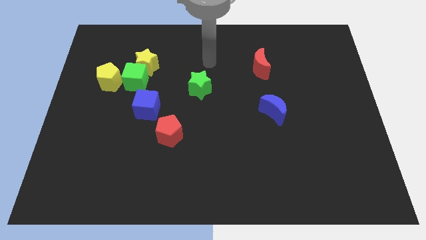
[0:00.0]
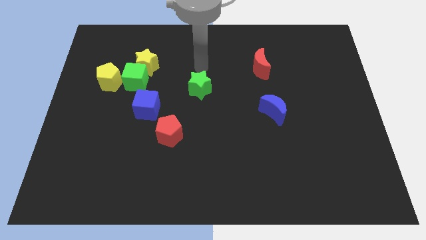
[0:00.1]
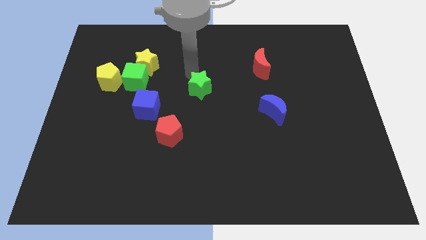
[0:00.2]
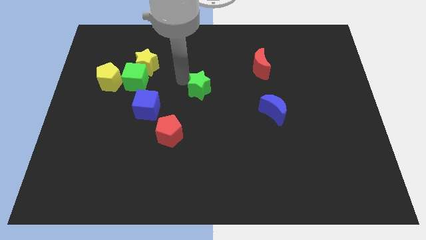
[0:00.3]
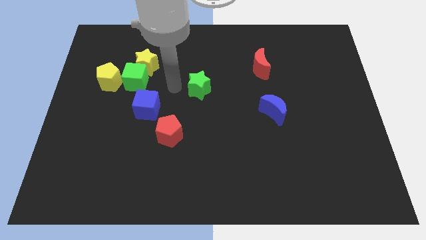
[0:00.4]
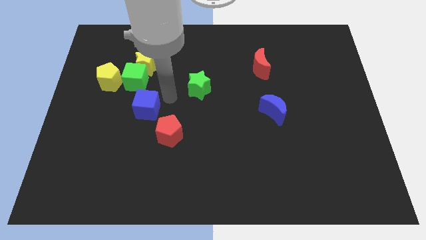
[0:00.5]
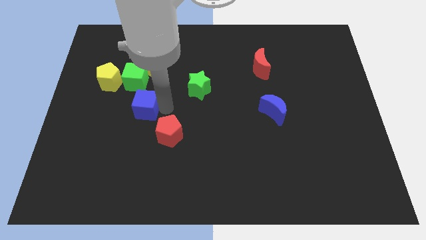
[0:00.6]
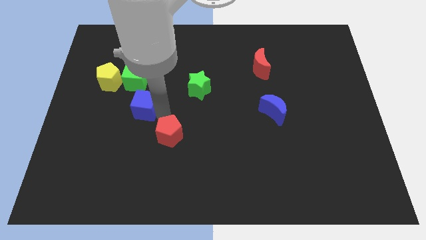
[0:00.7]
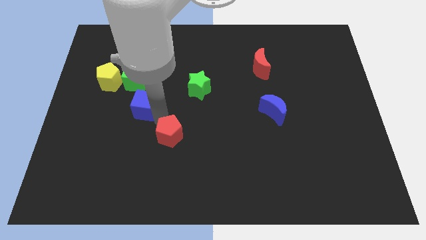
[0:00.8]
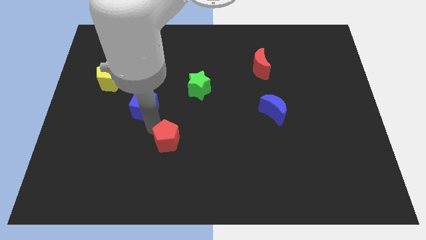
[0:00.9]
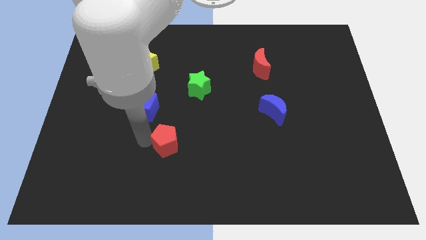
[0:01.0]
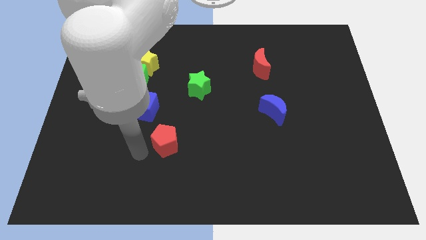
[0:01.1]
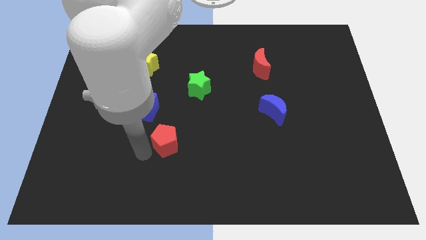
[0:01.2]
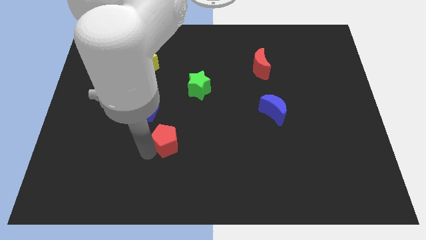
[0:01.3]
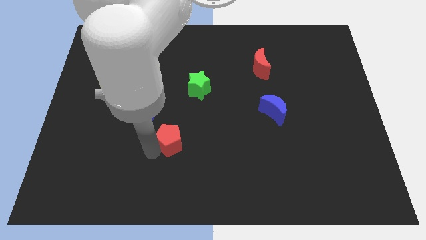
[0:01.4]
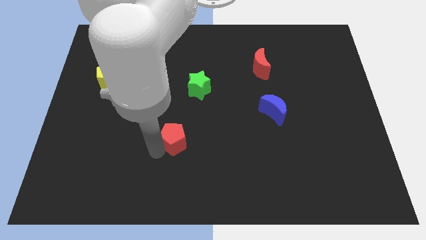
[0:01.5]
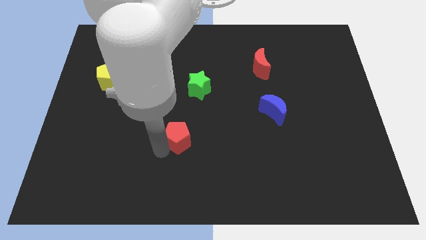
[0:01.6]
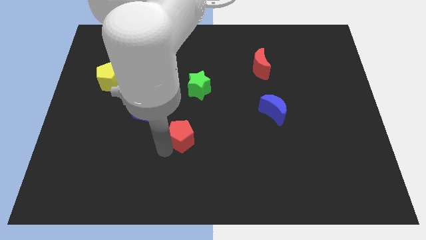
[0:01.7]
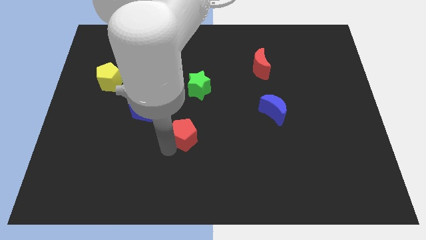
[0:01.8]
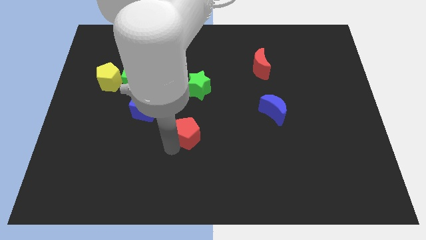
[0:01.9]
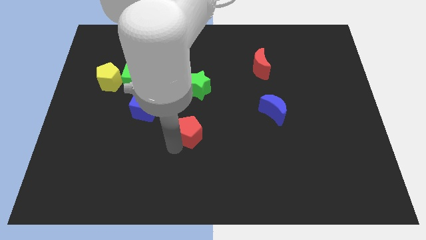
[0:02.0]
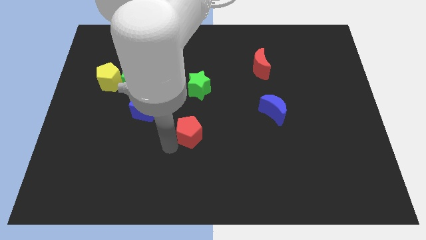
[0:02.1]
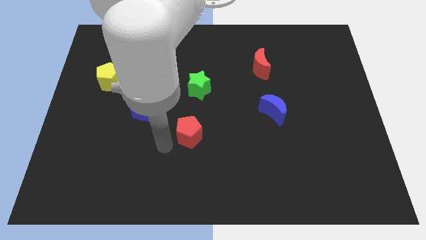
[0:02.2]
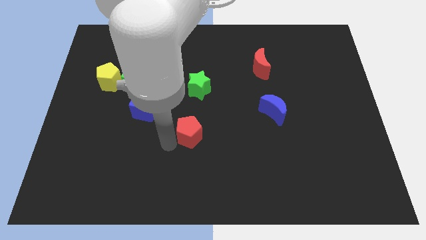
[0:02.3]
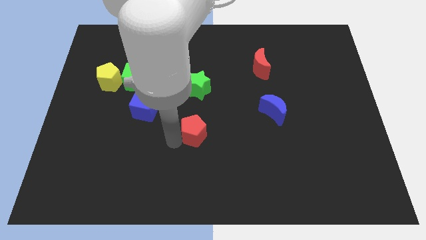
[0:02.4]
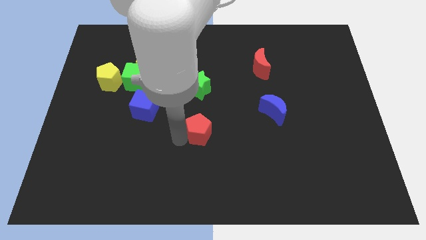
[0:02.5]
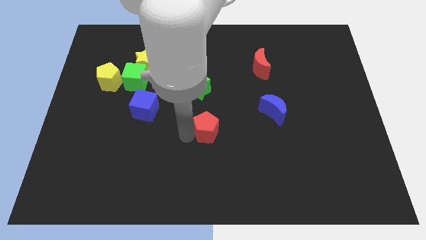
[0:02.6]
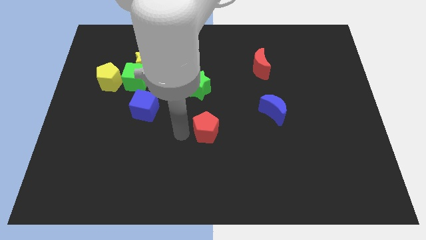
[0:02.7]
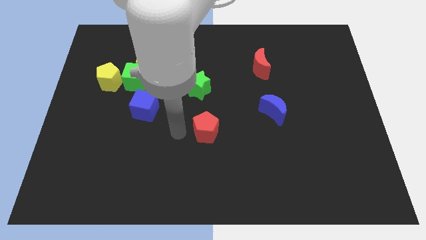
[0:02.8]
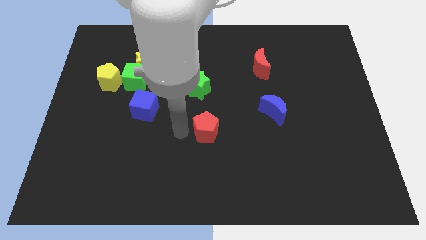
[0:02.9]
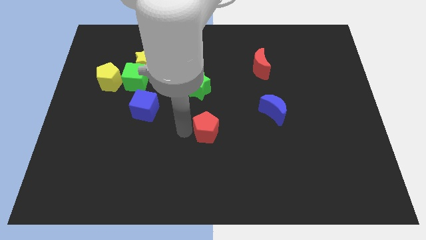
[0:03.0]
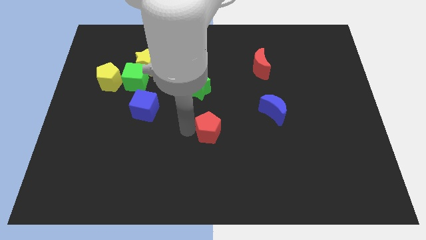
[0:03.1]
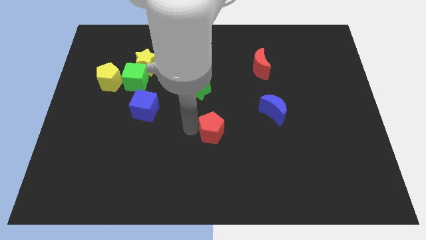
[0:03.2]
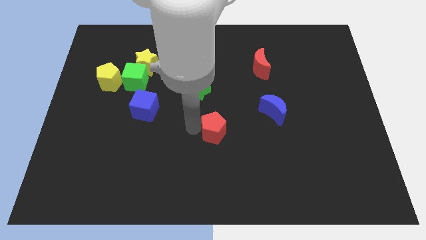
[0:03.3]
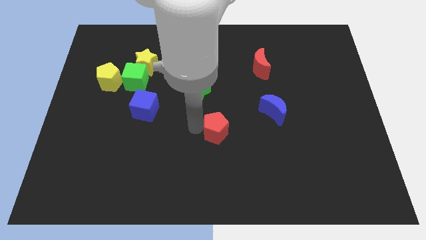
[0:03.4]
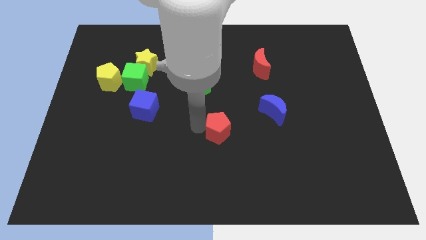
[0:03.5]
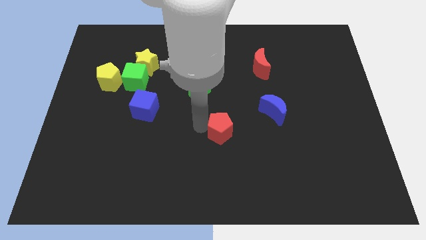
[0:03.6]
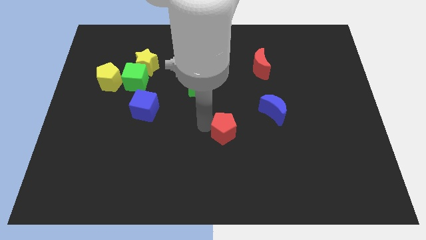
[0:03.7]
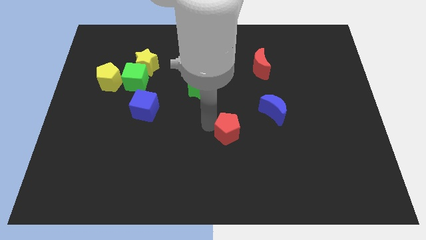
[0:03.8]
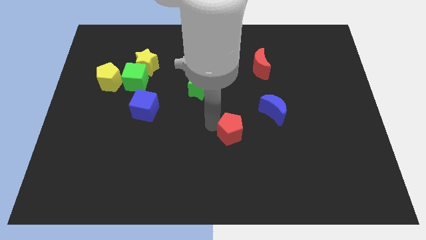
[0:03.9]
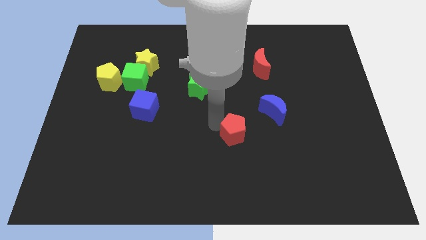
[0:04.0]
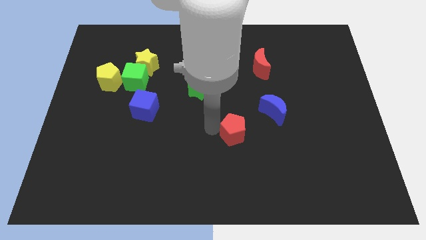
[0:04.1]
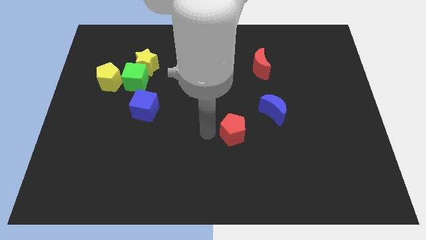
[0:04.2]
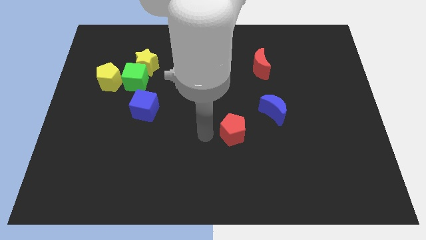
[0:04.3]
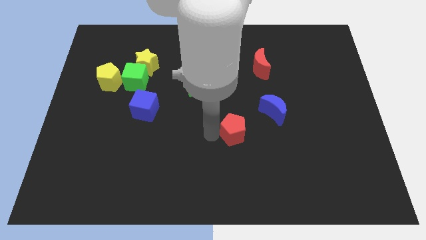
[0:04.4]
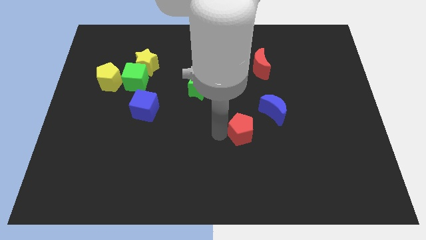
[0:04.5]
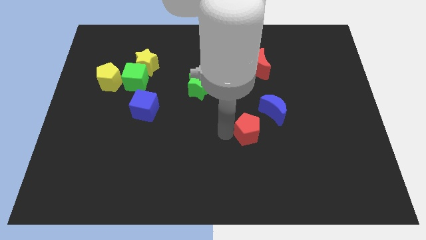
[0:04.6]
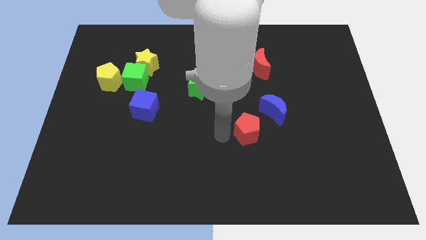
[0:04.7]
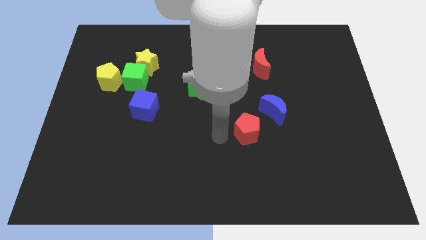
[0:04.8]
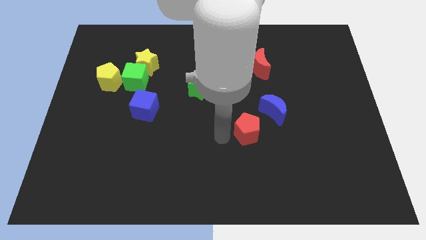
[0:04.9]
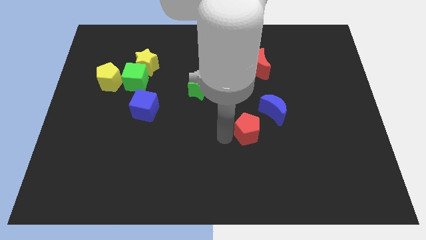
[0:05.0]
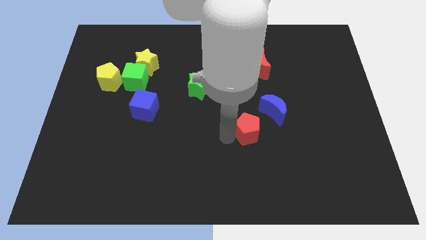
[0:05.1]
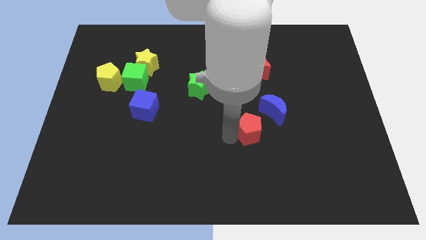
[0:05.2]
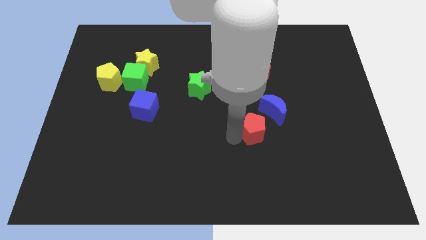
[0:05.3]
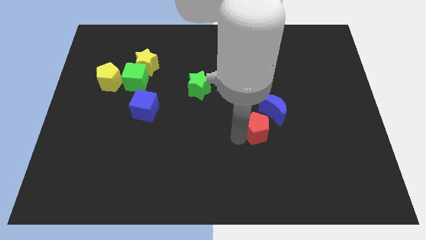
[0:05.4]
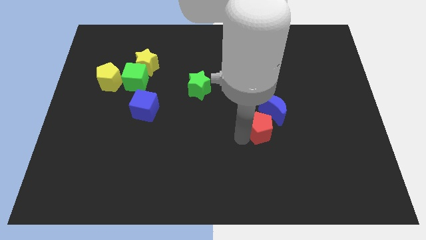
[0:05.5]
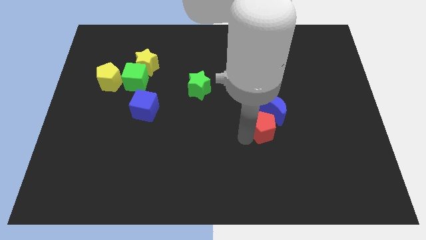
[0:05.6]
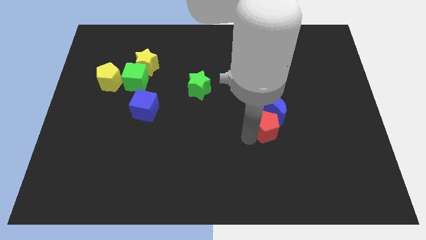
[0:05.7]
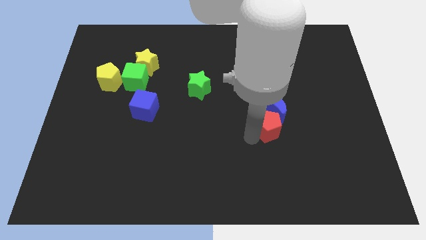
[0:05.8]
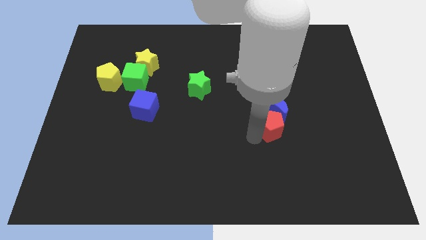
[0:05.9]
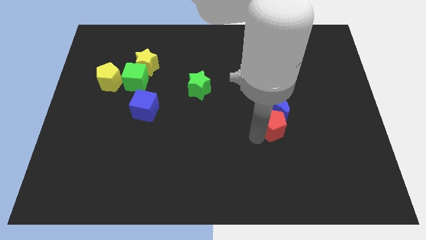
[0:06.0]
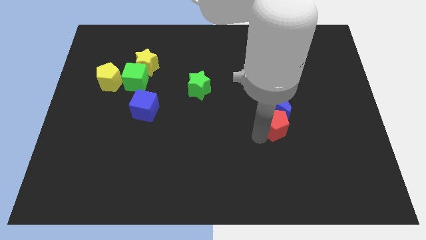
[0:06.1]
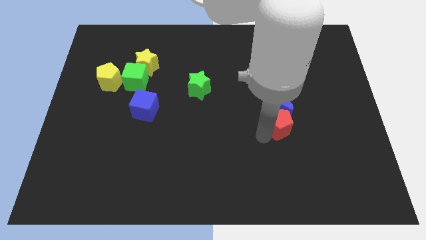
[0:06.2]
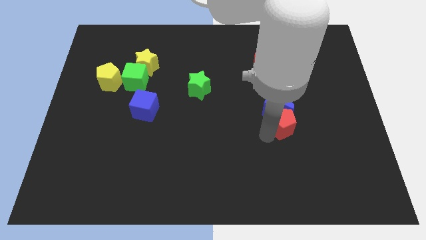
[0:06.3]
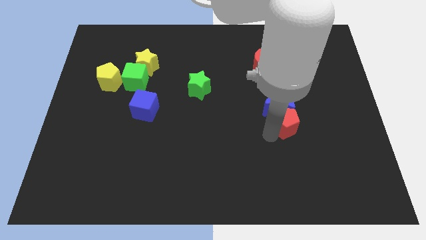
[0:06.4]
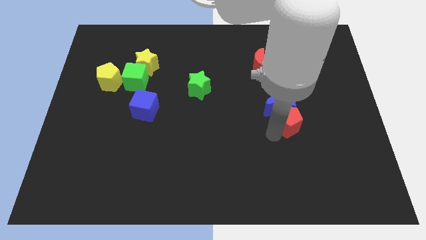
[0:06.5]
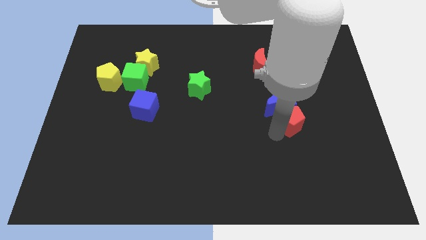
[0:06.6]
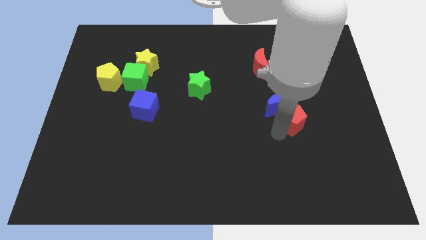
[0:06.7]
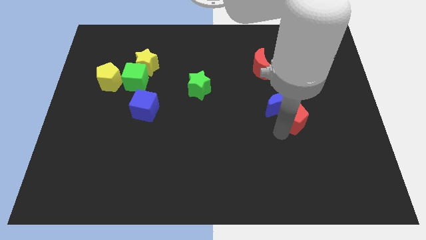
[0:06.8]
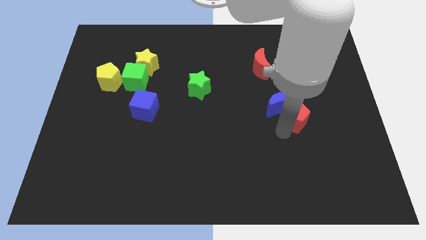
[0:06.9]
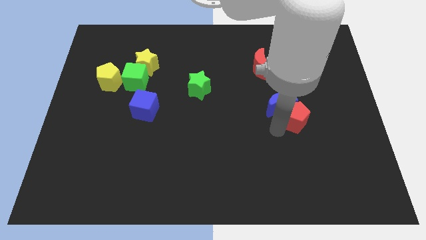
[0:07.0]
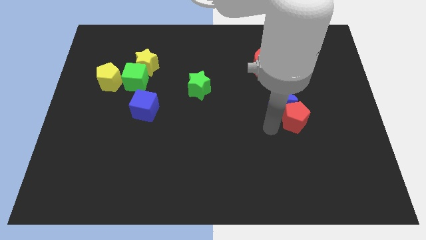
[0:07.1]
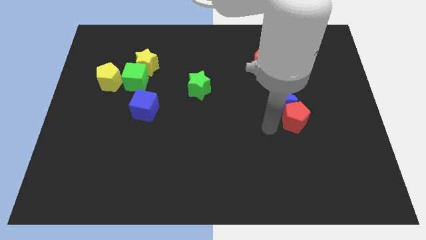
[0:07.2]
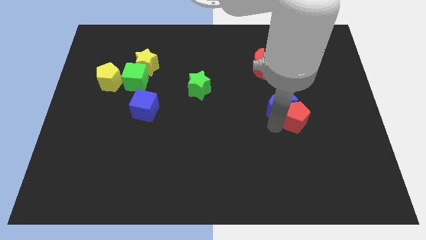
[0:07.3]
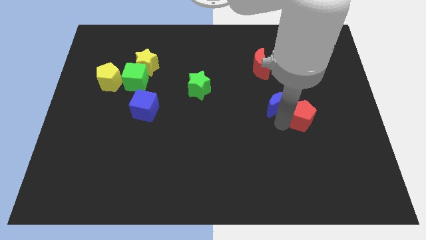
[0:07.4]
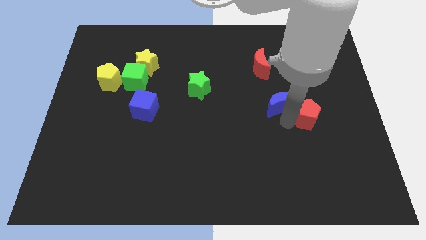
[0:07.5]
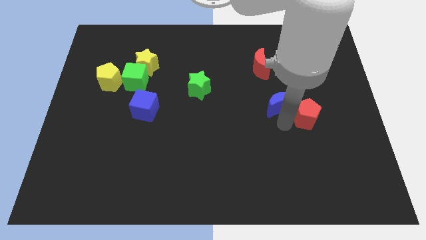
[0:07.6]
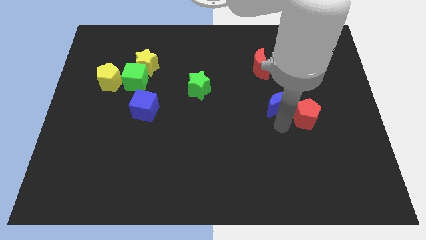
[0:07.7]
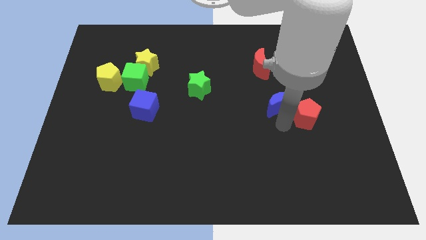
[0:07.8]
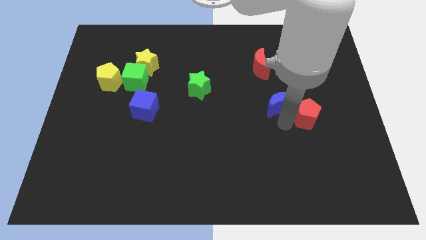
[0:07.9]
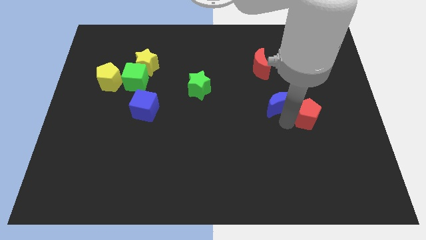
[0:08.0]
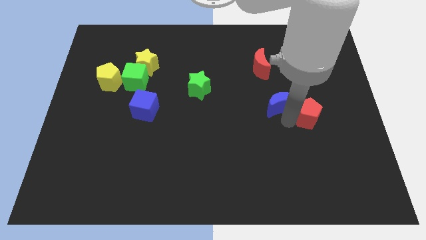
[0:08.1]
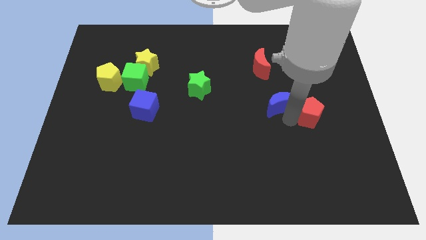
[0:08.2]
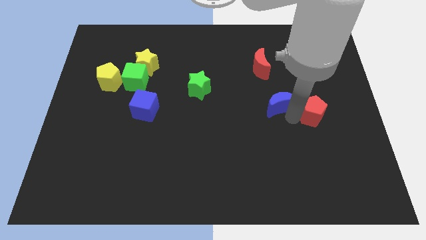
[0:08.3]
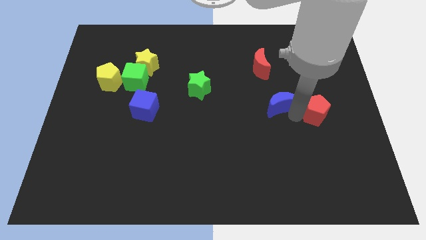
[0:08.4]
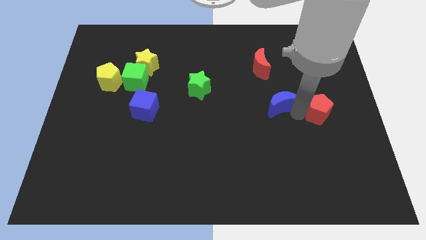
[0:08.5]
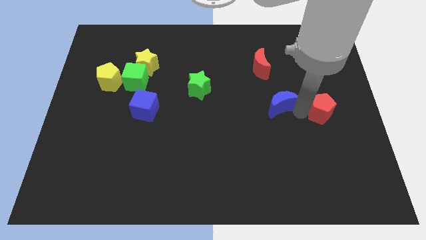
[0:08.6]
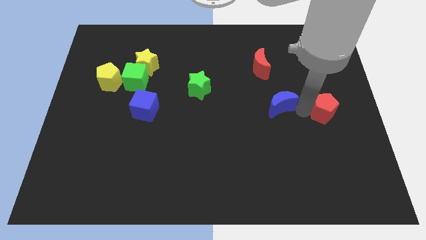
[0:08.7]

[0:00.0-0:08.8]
put the red pentagon to the center right
